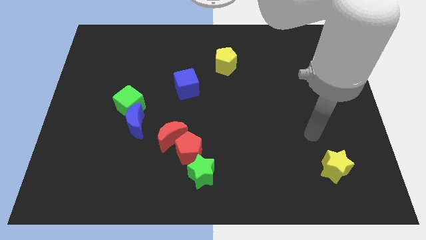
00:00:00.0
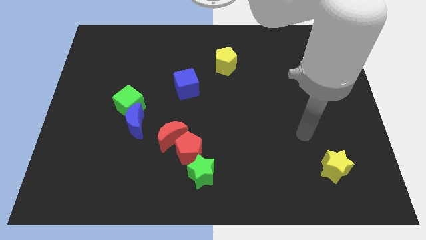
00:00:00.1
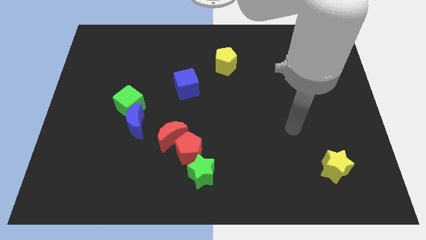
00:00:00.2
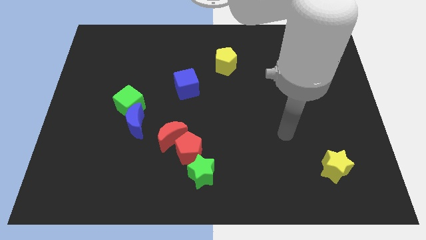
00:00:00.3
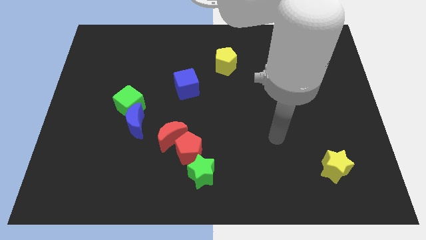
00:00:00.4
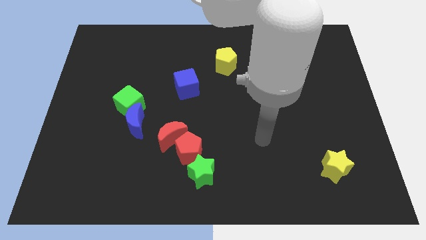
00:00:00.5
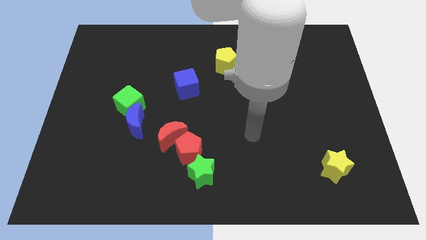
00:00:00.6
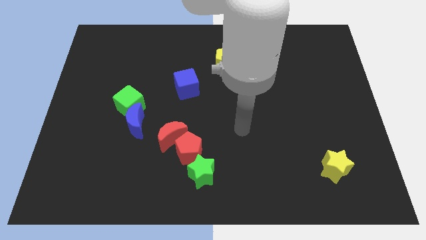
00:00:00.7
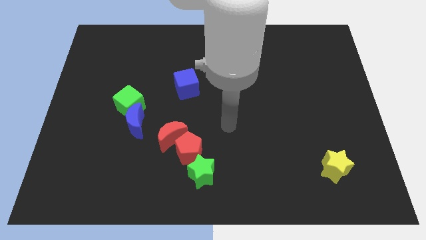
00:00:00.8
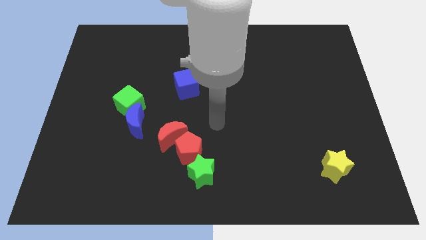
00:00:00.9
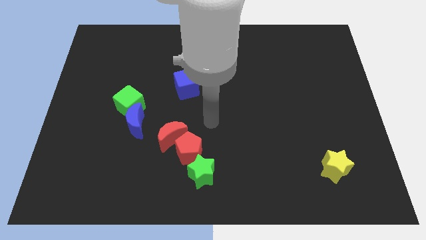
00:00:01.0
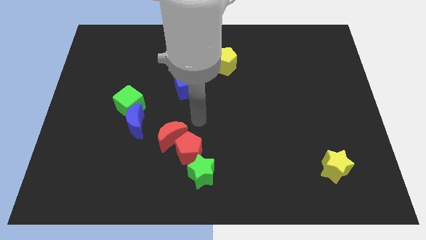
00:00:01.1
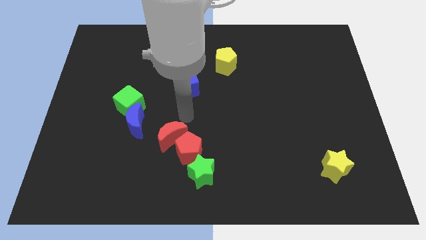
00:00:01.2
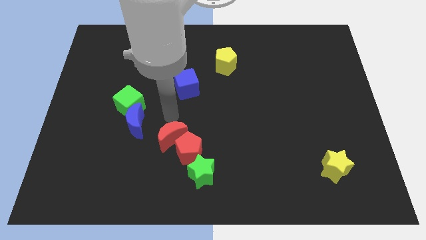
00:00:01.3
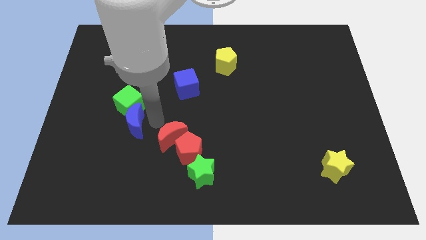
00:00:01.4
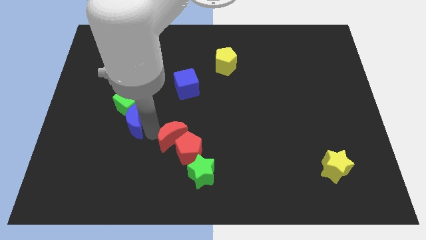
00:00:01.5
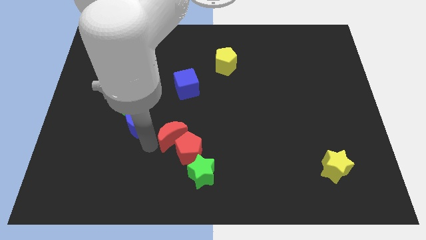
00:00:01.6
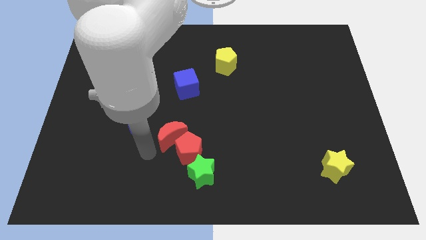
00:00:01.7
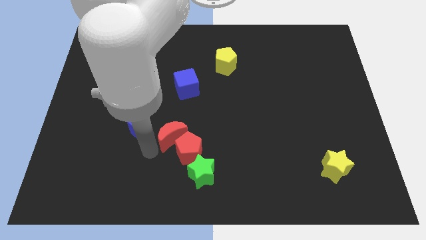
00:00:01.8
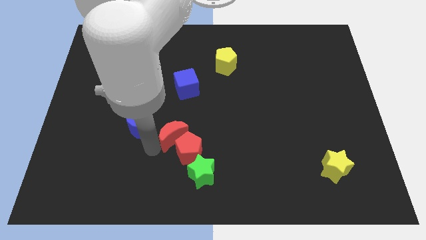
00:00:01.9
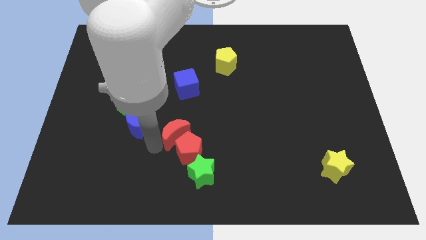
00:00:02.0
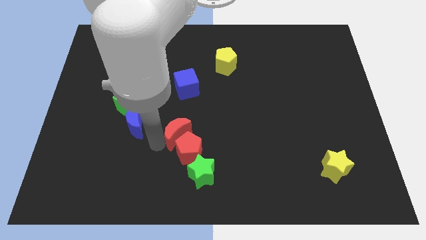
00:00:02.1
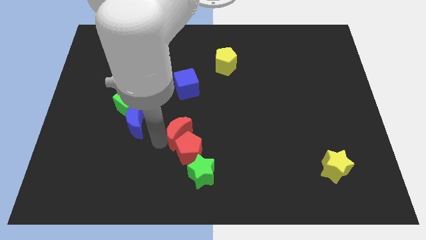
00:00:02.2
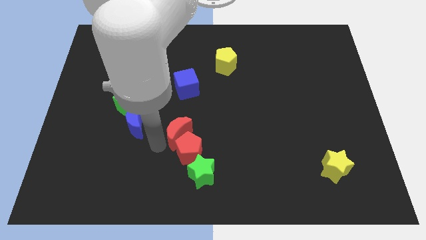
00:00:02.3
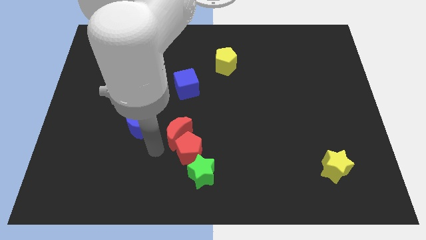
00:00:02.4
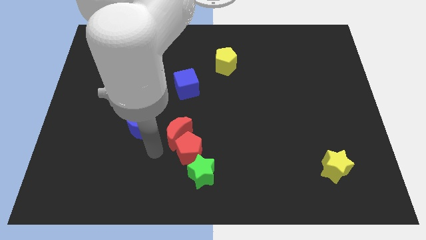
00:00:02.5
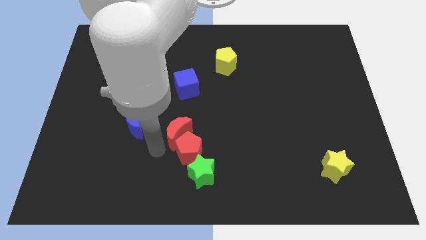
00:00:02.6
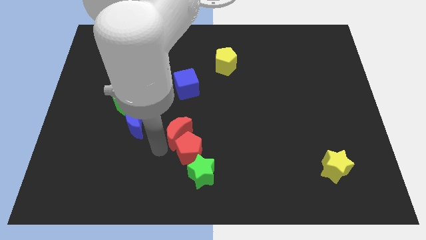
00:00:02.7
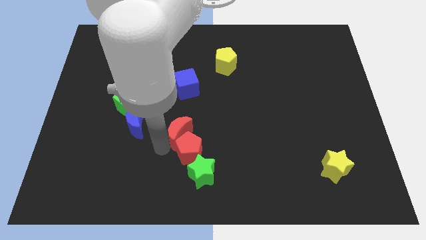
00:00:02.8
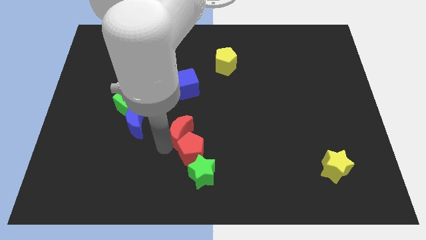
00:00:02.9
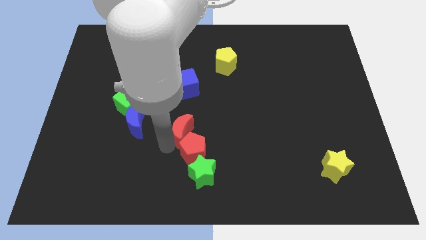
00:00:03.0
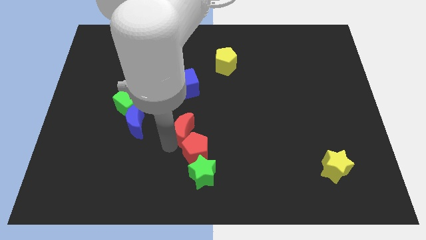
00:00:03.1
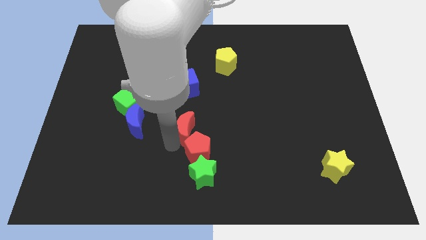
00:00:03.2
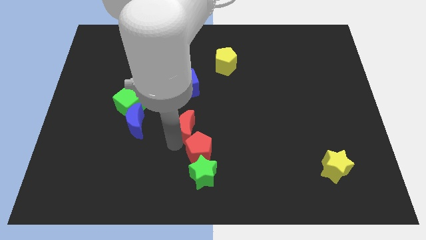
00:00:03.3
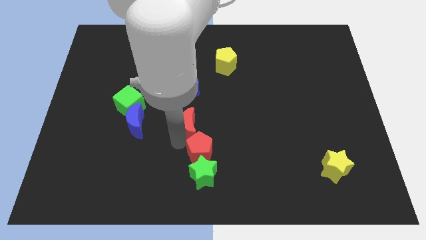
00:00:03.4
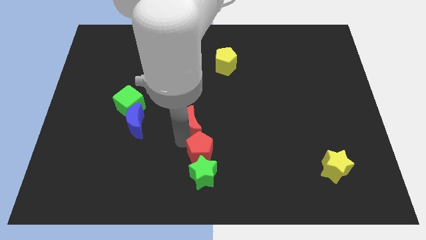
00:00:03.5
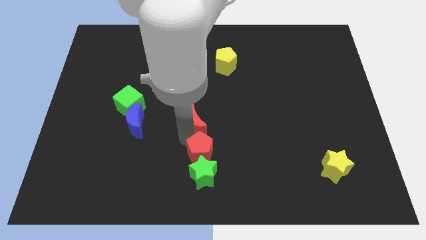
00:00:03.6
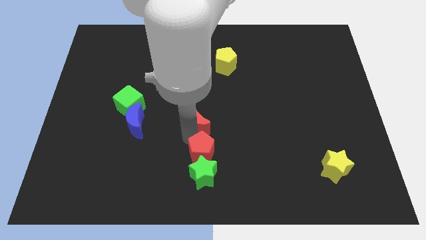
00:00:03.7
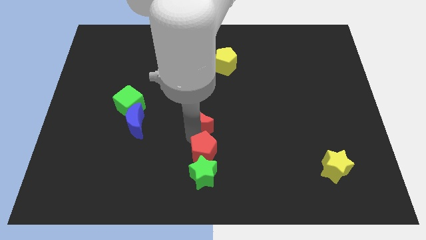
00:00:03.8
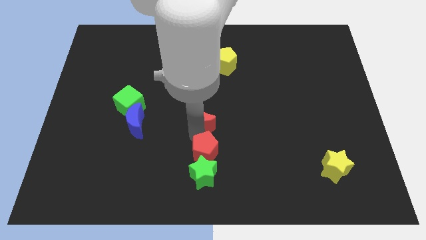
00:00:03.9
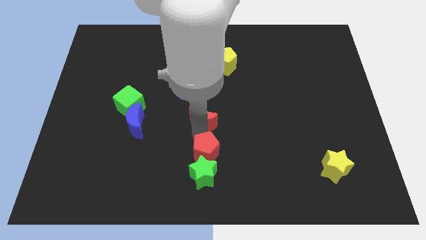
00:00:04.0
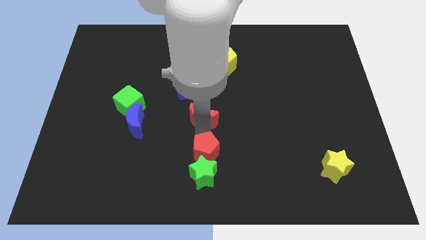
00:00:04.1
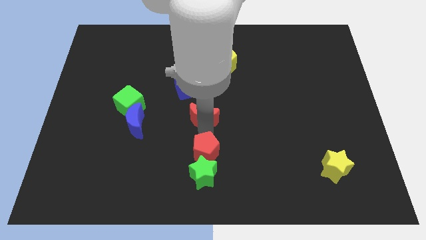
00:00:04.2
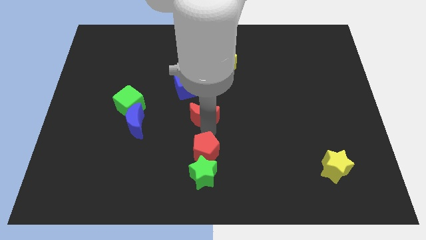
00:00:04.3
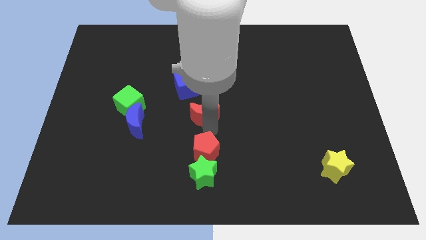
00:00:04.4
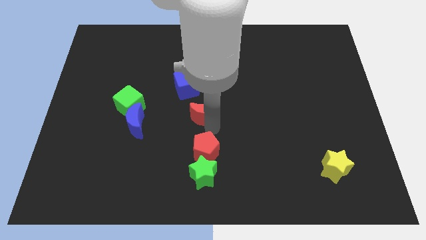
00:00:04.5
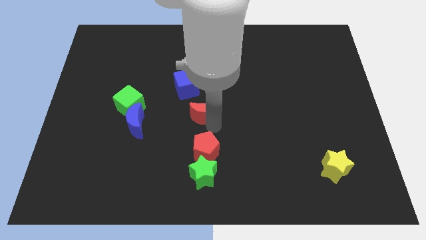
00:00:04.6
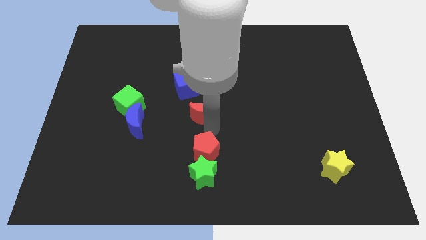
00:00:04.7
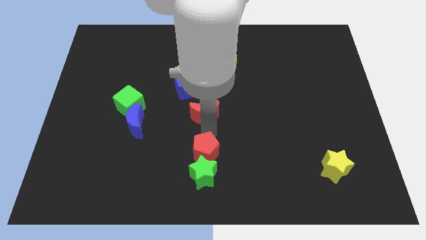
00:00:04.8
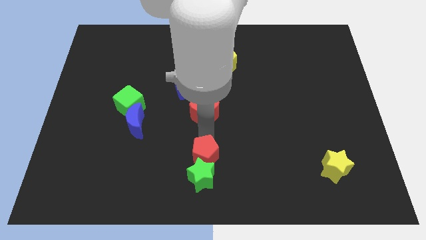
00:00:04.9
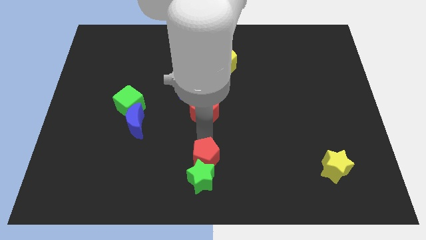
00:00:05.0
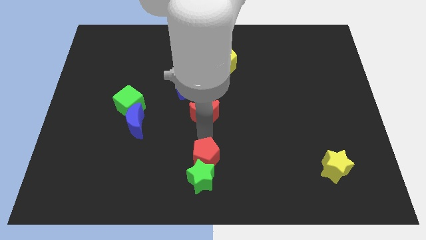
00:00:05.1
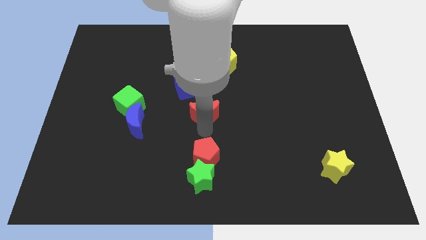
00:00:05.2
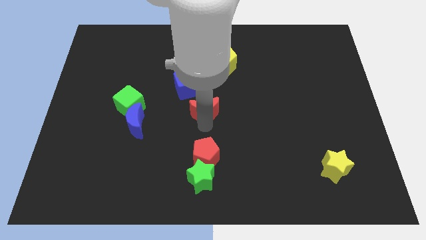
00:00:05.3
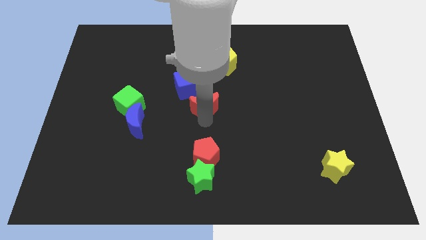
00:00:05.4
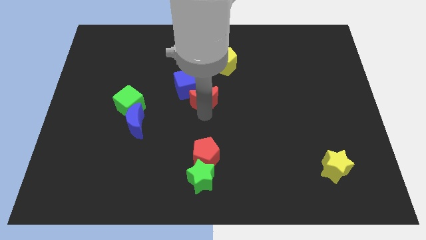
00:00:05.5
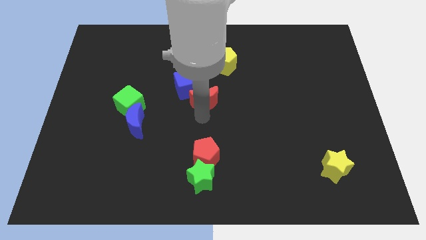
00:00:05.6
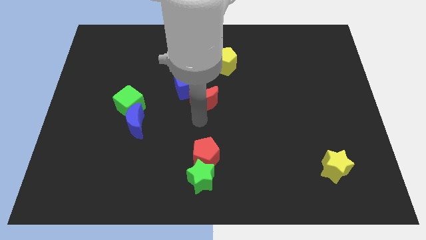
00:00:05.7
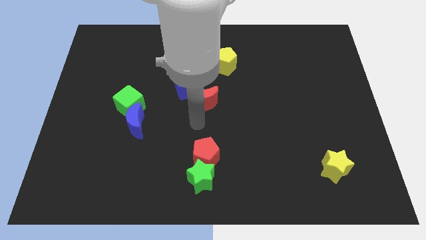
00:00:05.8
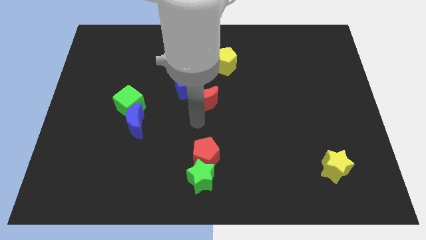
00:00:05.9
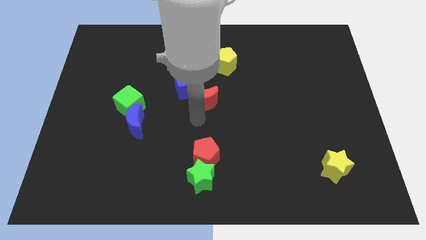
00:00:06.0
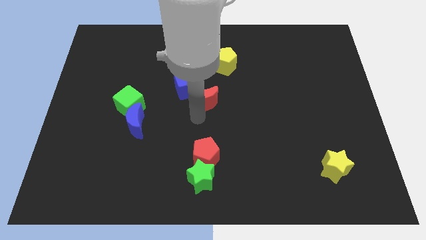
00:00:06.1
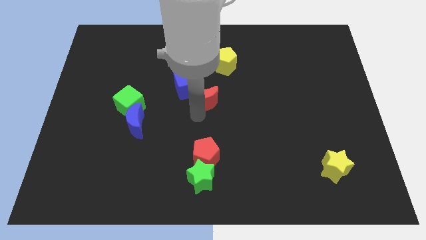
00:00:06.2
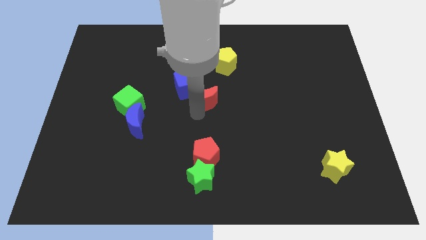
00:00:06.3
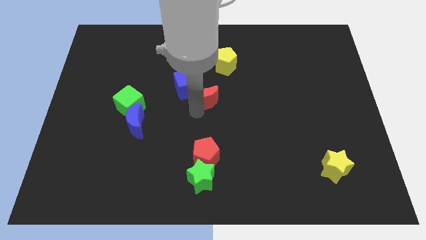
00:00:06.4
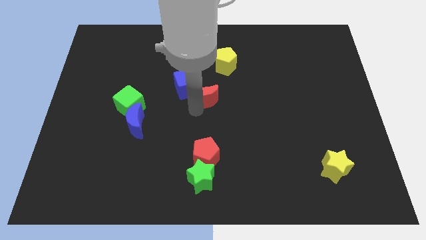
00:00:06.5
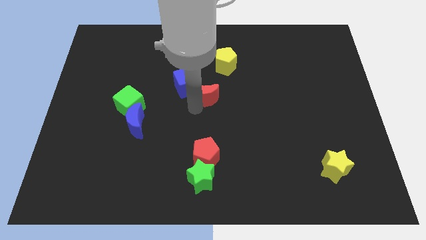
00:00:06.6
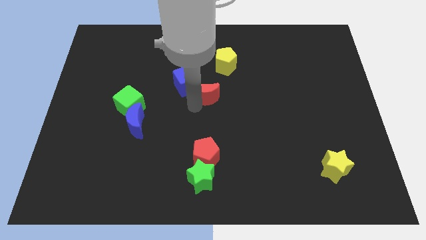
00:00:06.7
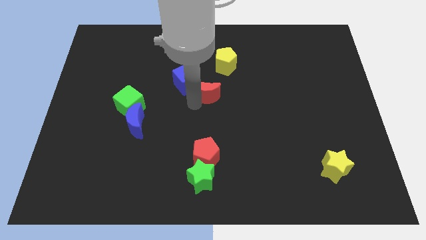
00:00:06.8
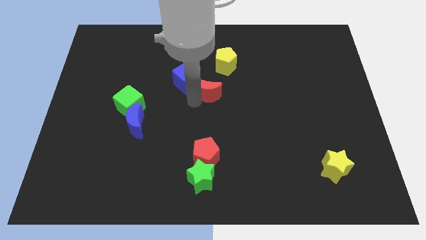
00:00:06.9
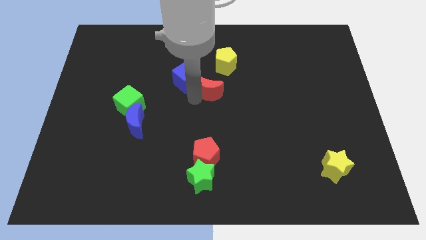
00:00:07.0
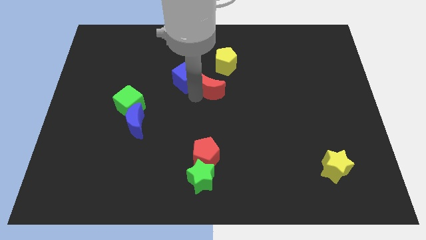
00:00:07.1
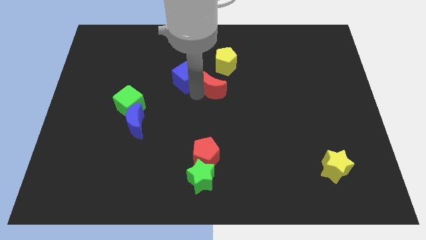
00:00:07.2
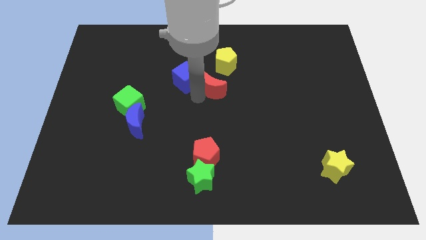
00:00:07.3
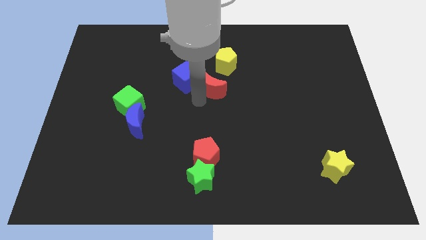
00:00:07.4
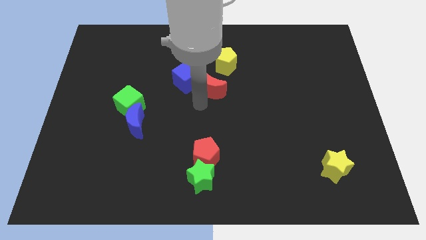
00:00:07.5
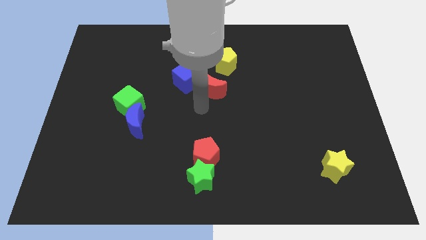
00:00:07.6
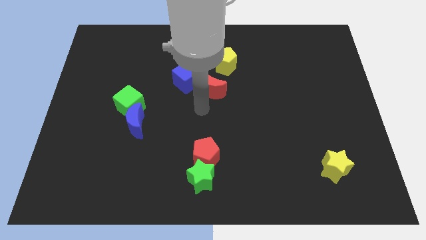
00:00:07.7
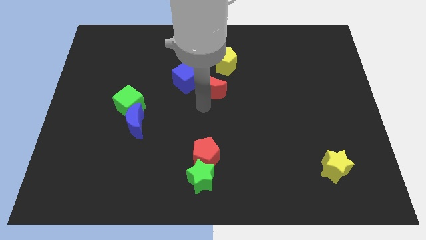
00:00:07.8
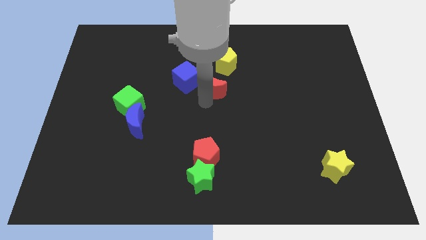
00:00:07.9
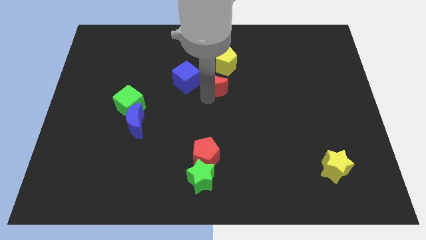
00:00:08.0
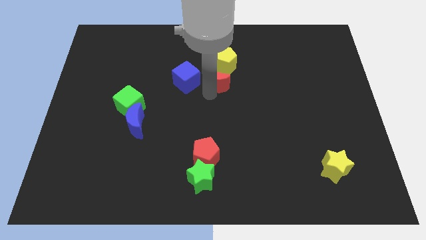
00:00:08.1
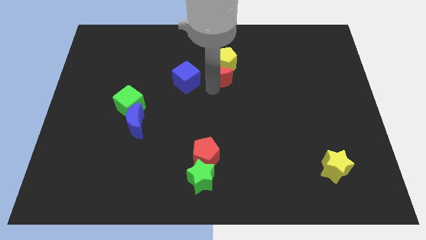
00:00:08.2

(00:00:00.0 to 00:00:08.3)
move the red moon next to the yellow pentagon
